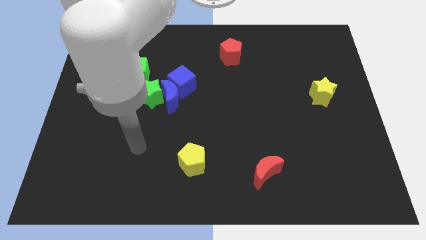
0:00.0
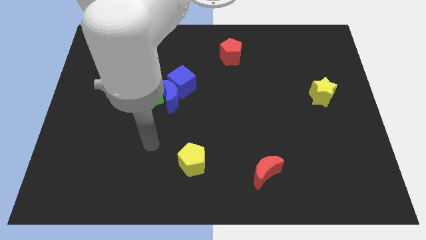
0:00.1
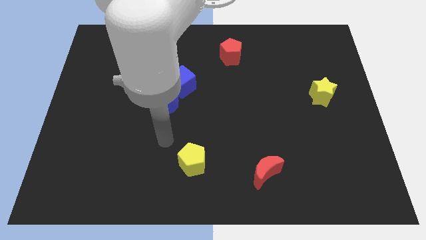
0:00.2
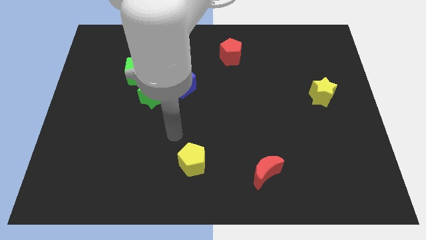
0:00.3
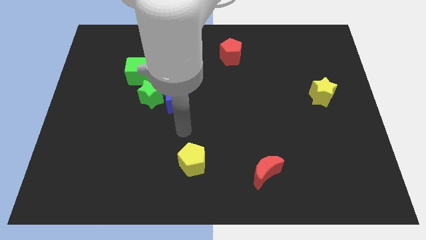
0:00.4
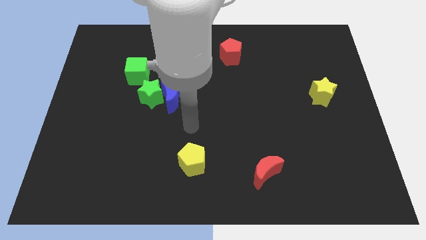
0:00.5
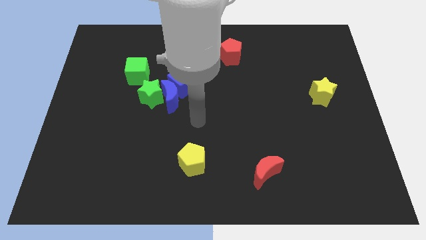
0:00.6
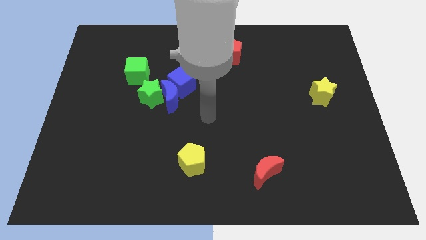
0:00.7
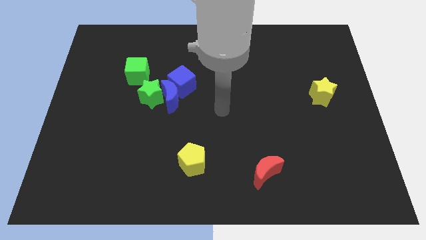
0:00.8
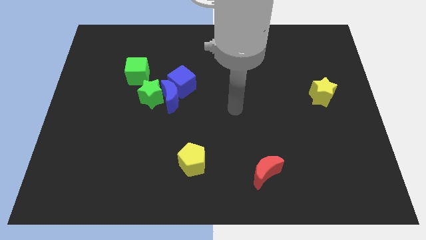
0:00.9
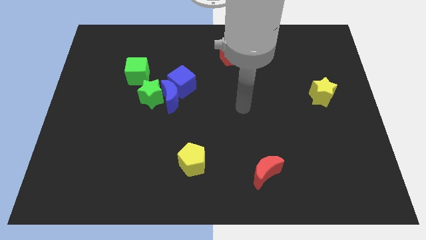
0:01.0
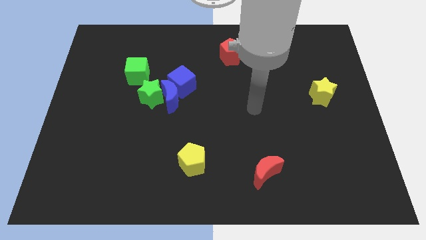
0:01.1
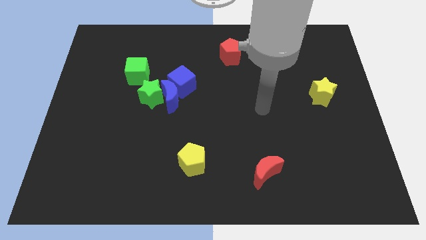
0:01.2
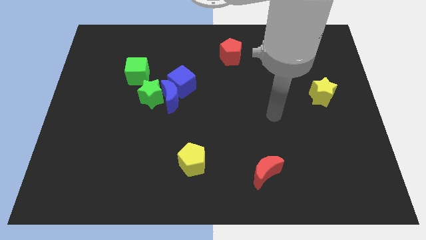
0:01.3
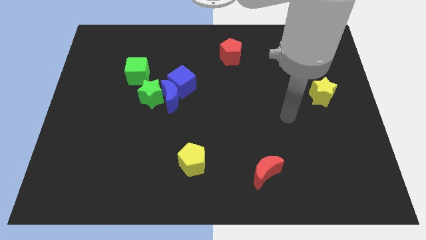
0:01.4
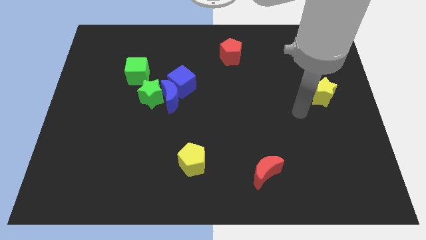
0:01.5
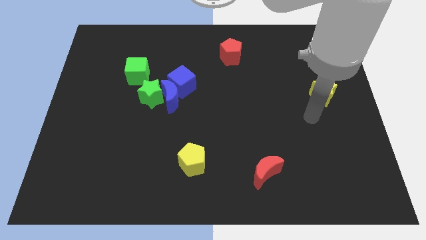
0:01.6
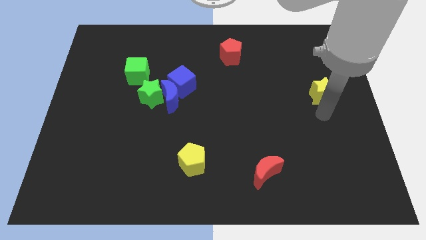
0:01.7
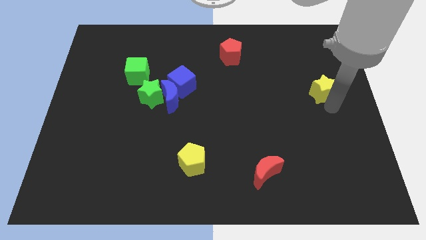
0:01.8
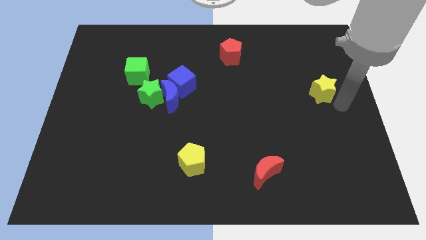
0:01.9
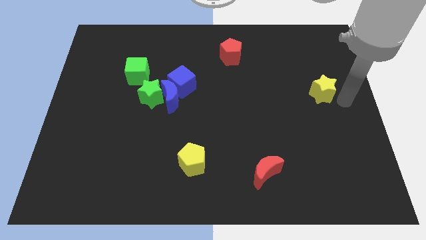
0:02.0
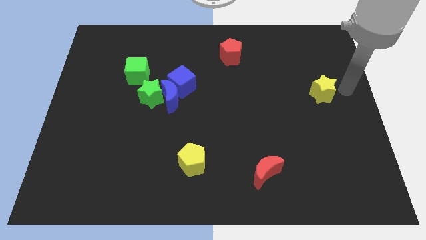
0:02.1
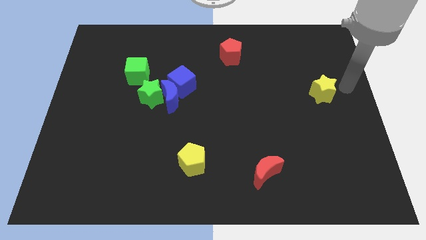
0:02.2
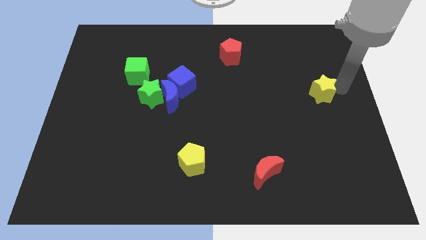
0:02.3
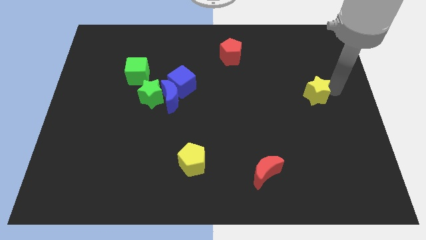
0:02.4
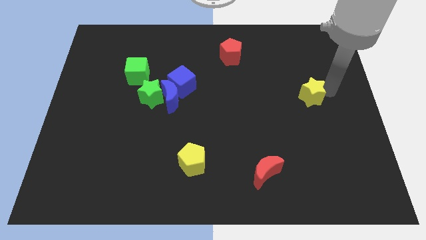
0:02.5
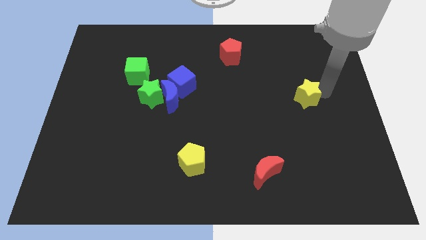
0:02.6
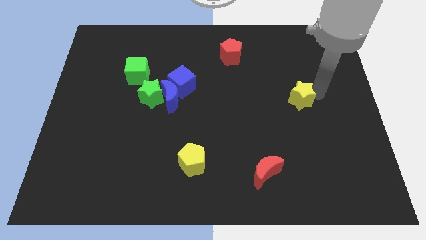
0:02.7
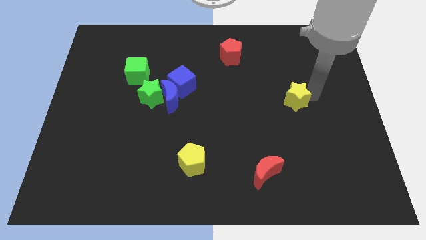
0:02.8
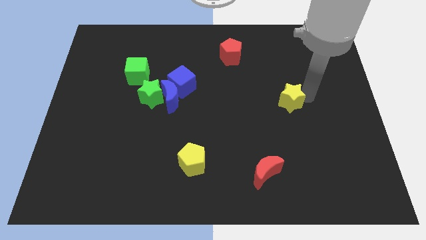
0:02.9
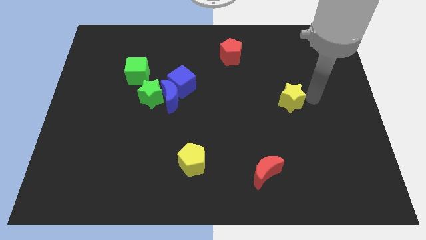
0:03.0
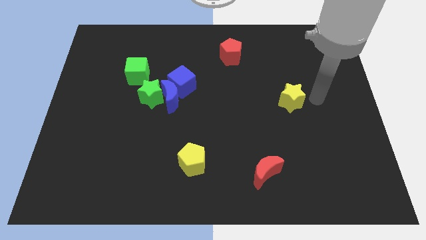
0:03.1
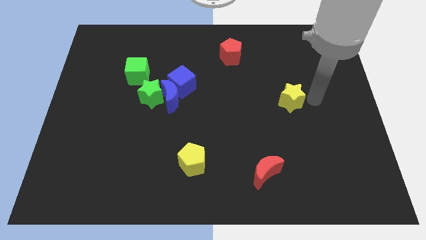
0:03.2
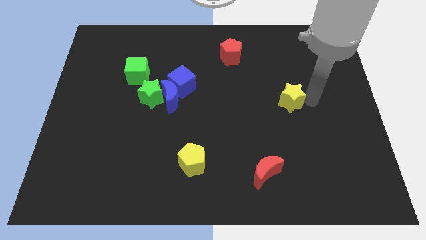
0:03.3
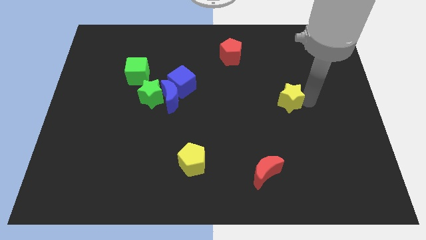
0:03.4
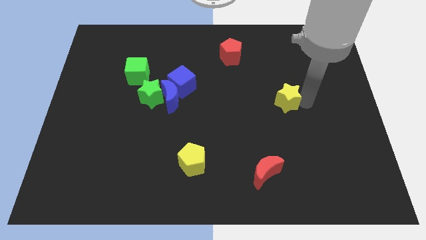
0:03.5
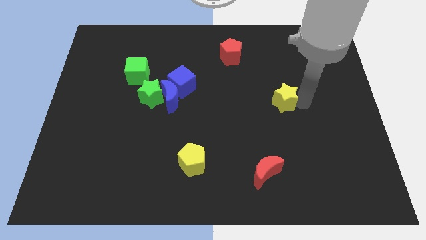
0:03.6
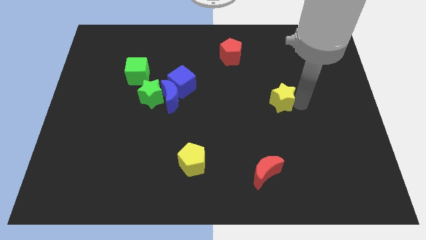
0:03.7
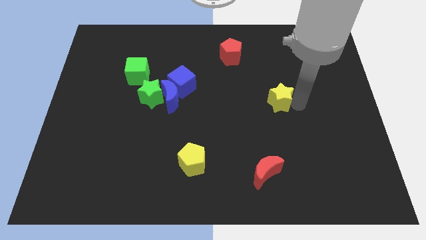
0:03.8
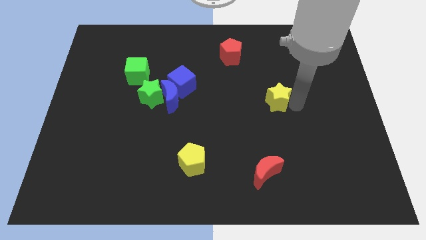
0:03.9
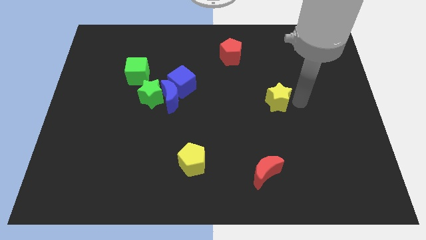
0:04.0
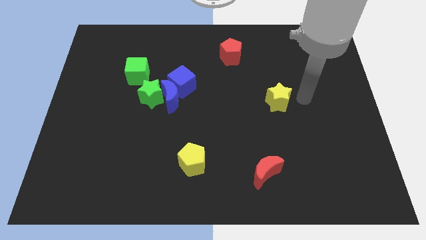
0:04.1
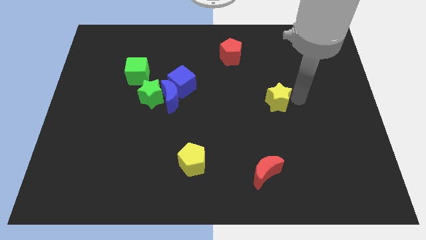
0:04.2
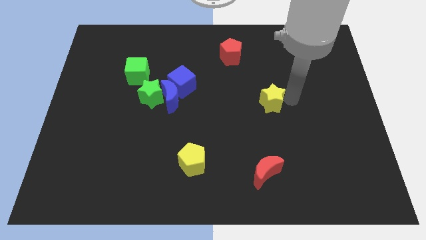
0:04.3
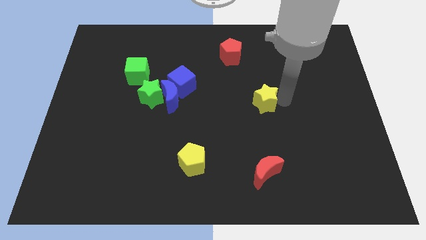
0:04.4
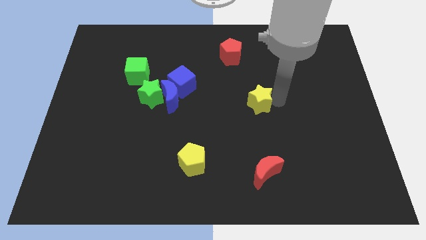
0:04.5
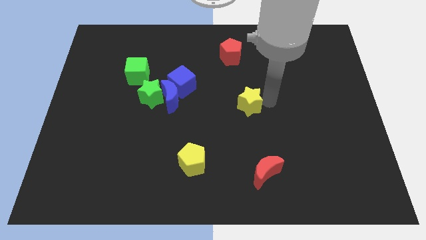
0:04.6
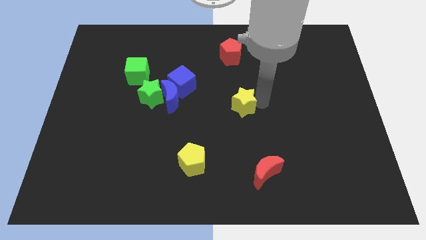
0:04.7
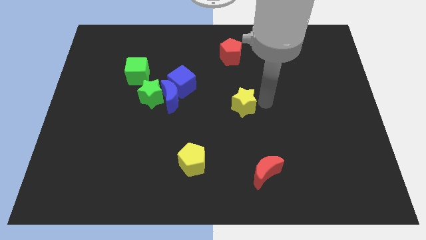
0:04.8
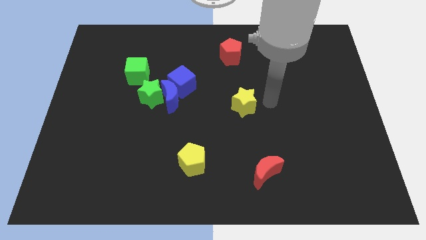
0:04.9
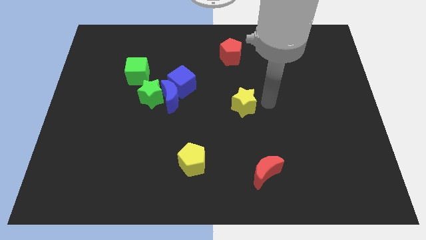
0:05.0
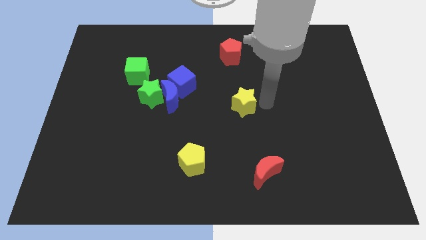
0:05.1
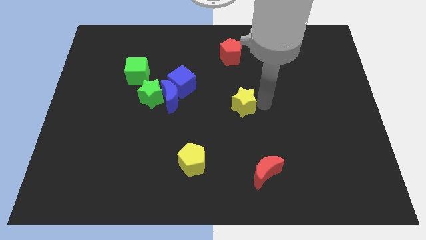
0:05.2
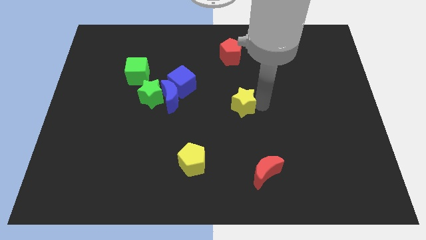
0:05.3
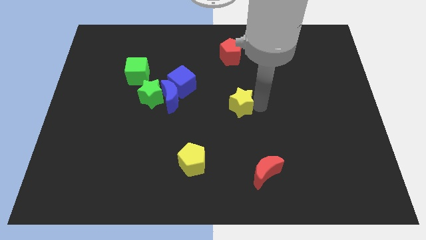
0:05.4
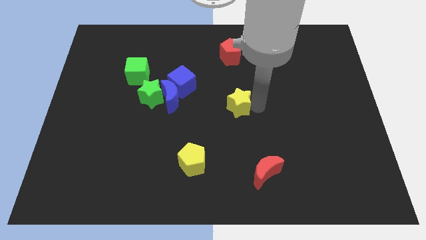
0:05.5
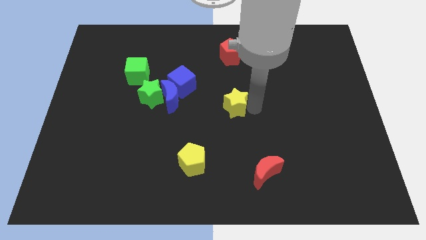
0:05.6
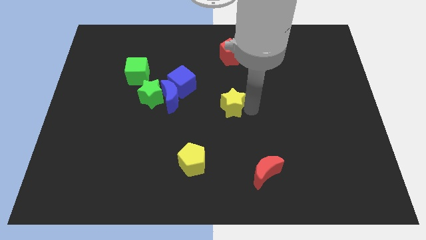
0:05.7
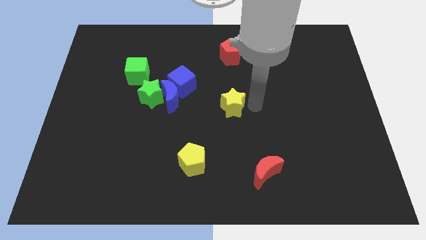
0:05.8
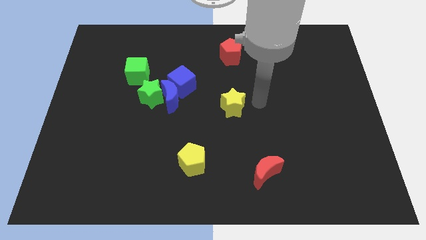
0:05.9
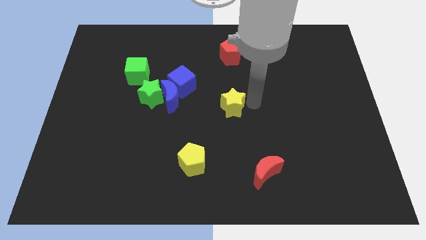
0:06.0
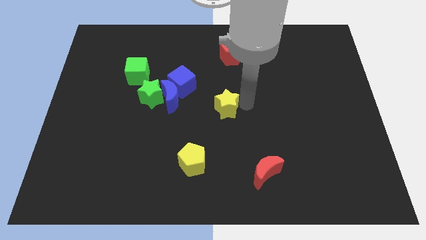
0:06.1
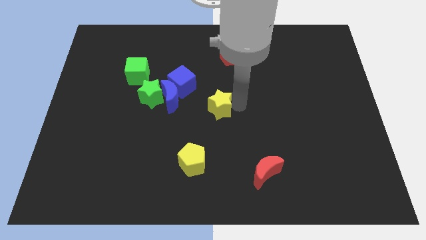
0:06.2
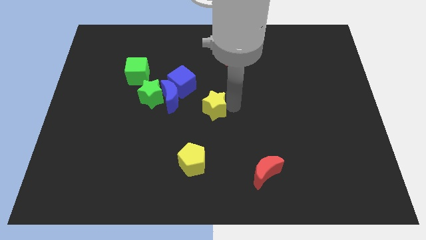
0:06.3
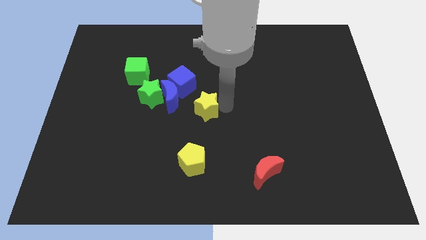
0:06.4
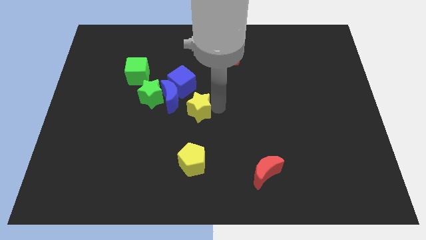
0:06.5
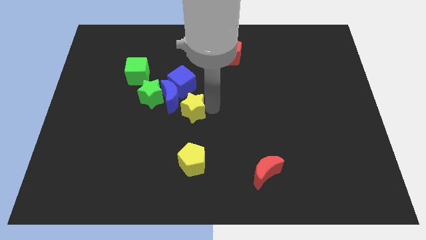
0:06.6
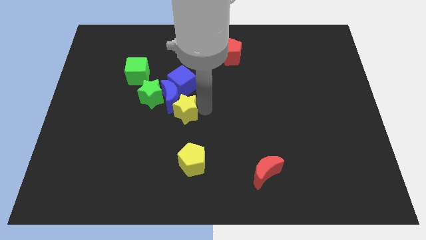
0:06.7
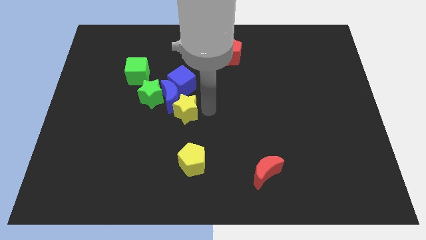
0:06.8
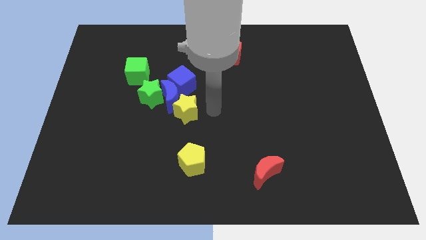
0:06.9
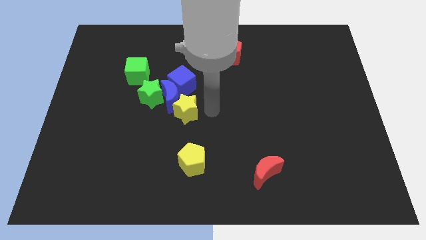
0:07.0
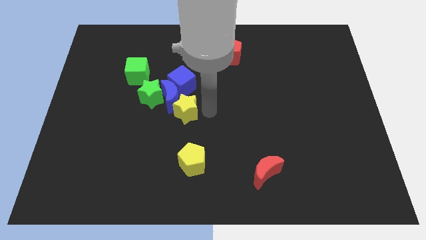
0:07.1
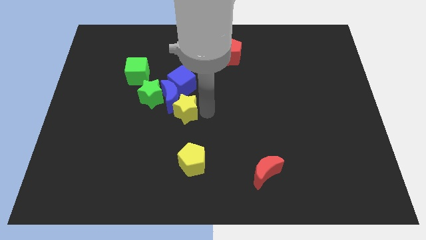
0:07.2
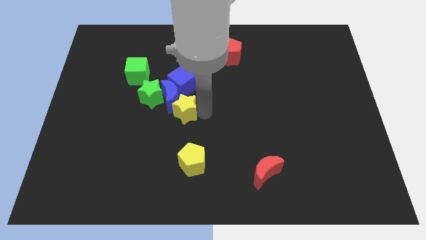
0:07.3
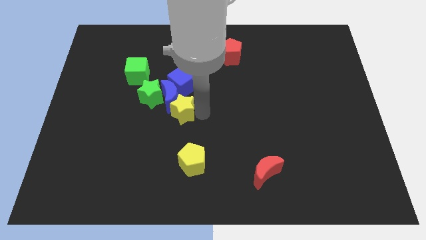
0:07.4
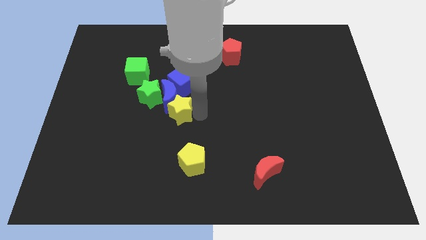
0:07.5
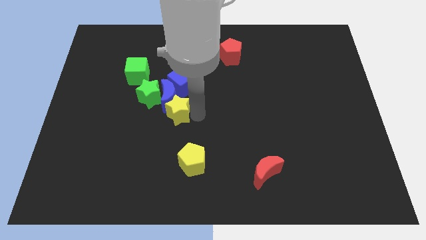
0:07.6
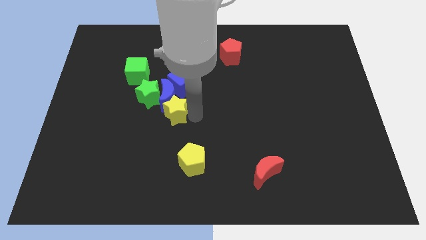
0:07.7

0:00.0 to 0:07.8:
slide the yellow star to the bottom left of the blue moon
